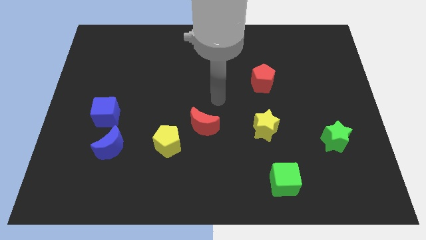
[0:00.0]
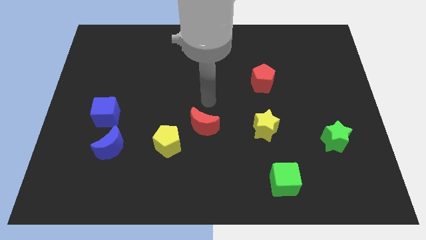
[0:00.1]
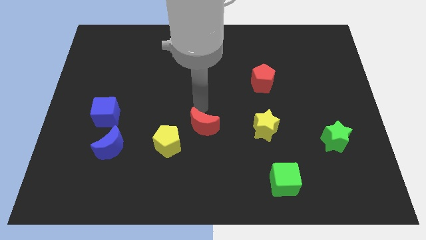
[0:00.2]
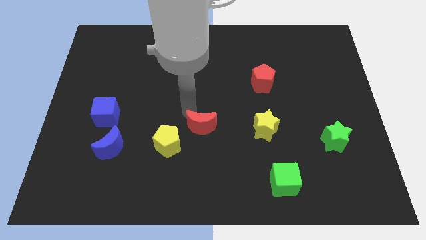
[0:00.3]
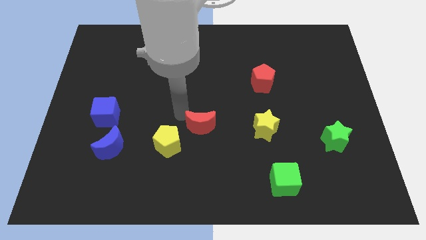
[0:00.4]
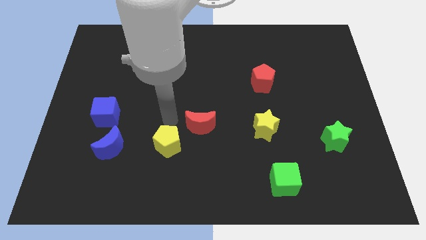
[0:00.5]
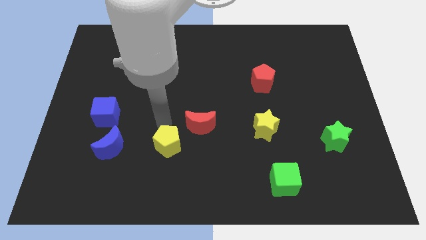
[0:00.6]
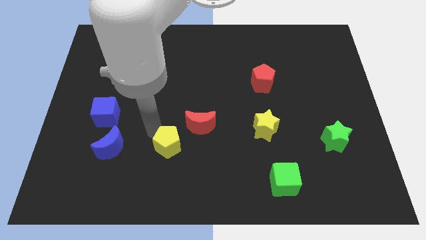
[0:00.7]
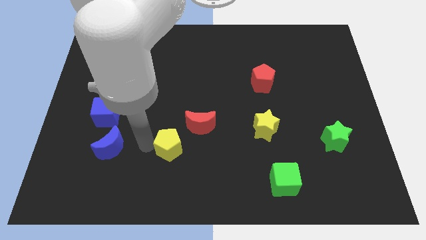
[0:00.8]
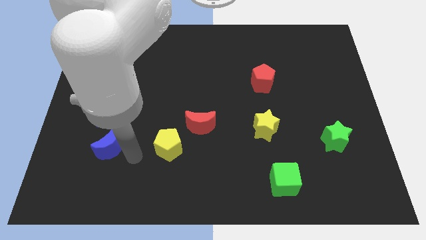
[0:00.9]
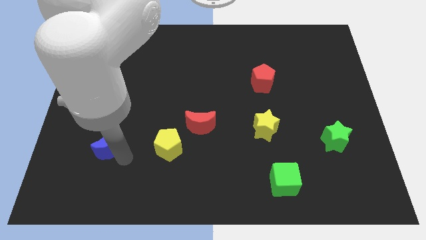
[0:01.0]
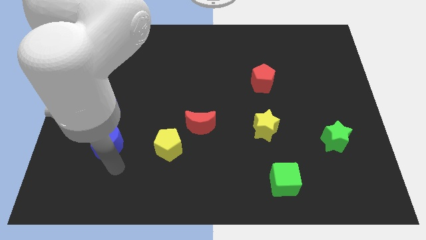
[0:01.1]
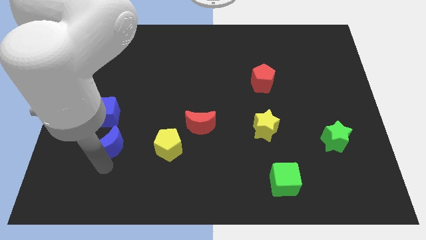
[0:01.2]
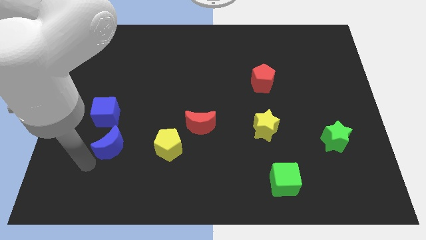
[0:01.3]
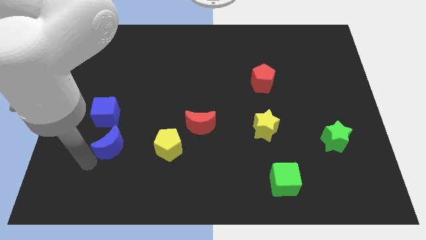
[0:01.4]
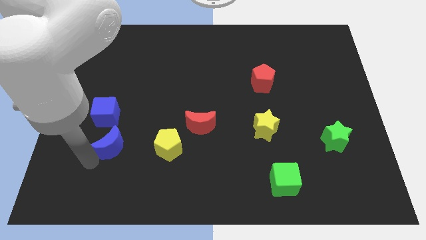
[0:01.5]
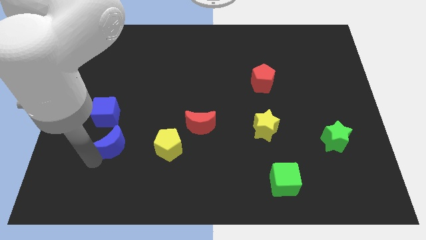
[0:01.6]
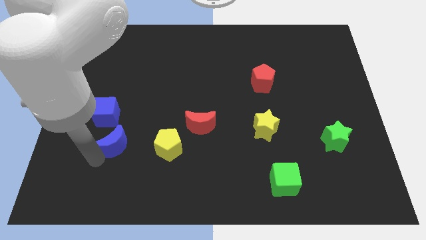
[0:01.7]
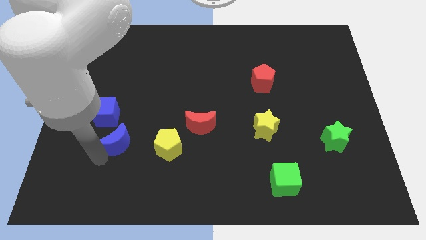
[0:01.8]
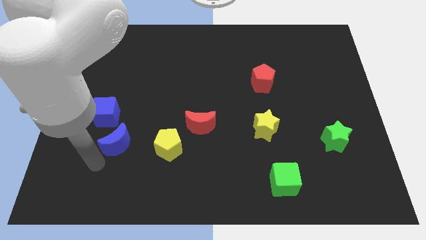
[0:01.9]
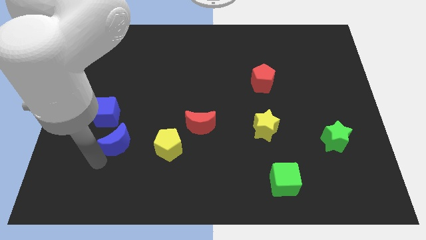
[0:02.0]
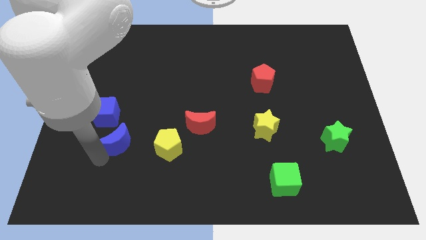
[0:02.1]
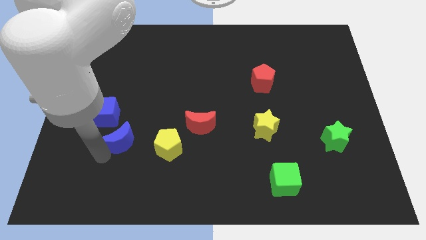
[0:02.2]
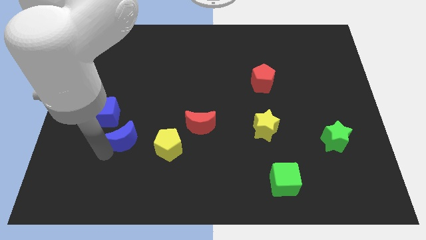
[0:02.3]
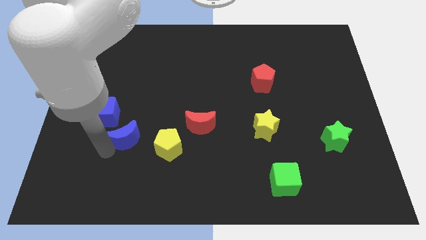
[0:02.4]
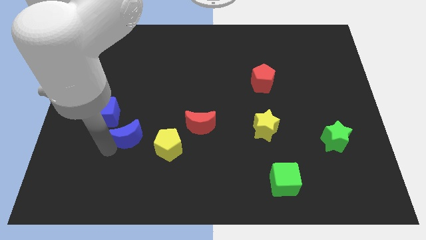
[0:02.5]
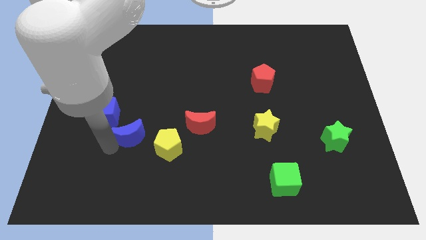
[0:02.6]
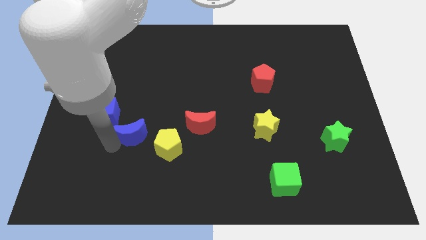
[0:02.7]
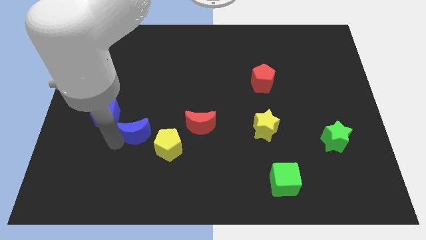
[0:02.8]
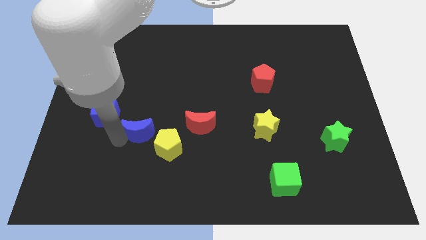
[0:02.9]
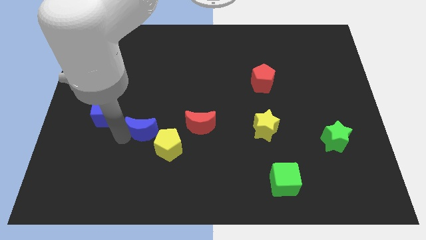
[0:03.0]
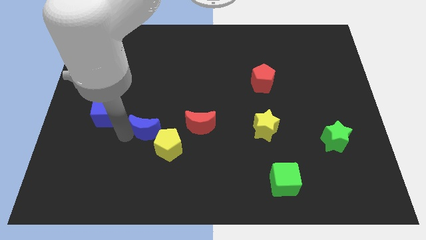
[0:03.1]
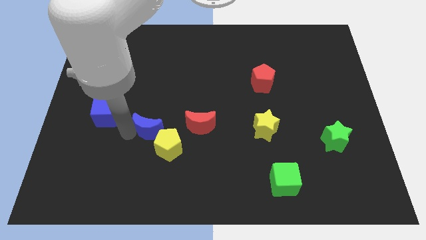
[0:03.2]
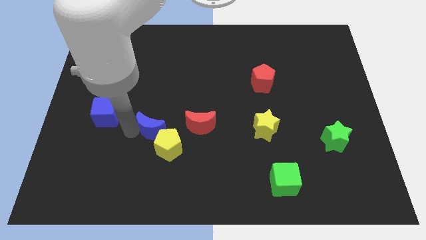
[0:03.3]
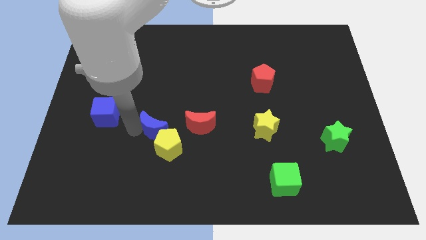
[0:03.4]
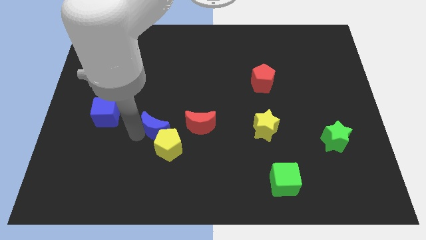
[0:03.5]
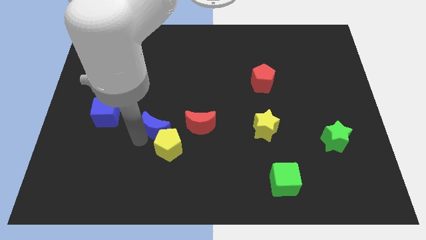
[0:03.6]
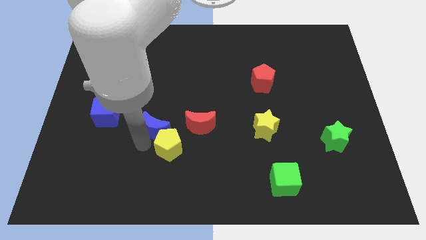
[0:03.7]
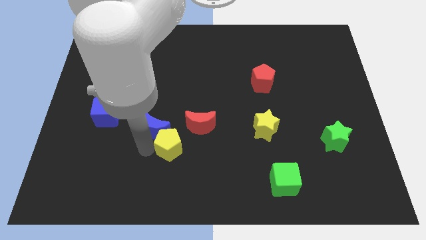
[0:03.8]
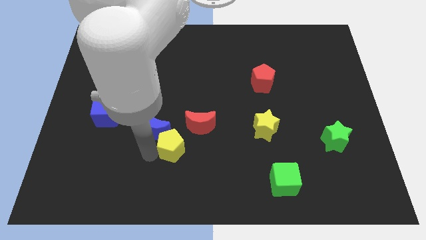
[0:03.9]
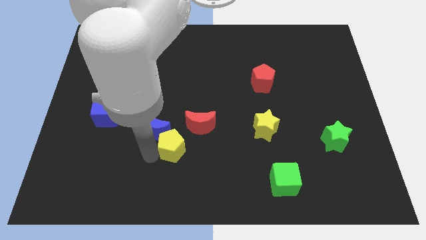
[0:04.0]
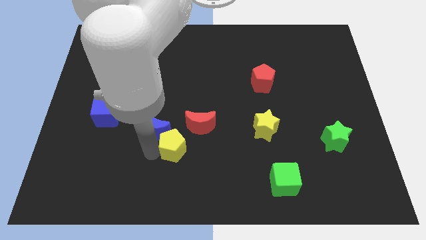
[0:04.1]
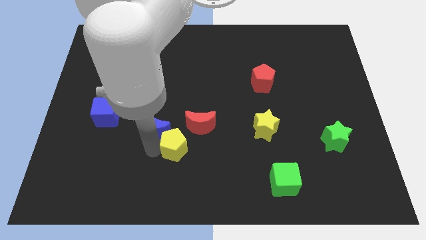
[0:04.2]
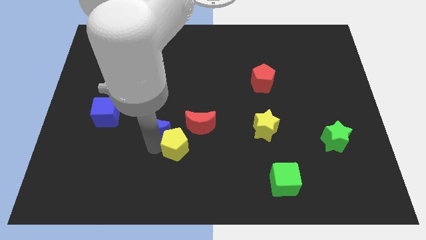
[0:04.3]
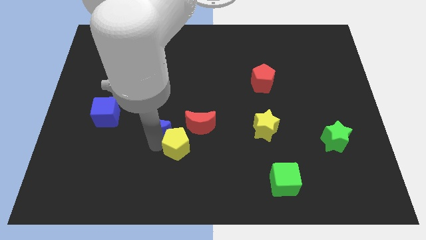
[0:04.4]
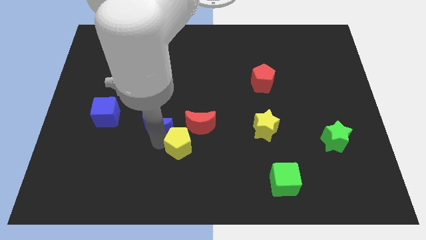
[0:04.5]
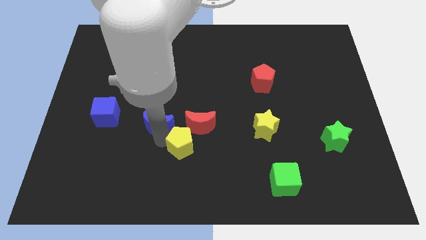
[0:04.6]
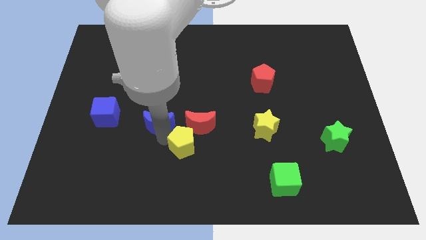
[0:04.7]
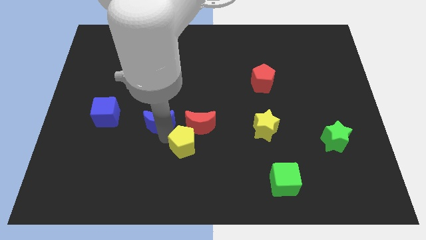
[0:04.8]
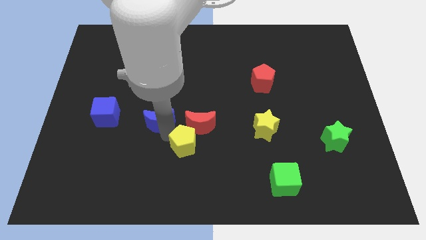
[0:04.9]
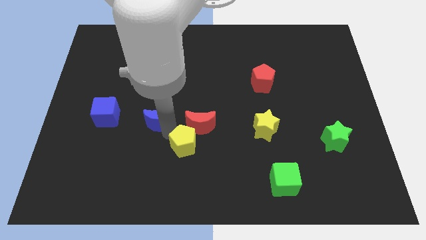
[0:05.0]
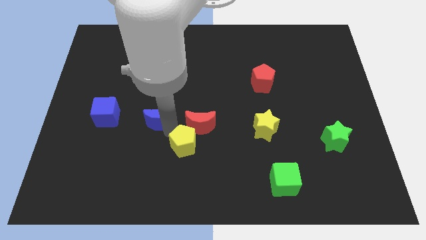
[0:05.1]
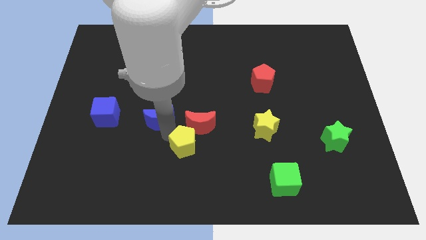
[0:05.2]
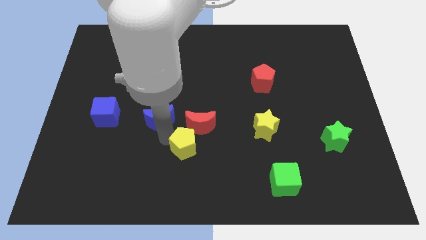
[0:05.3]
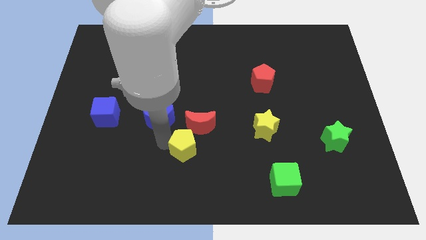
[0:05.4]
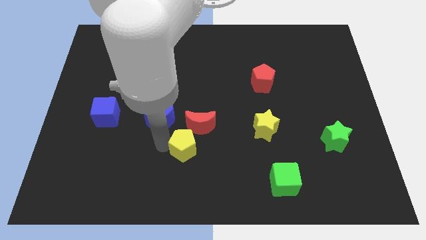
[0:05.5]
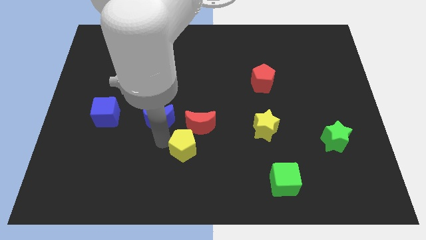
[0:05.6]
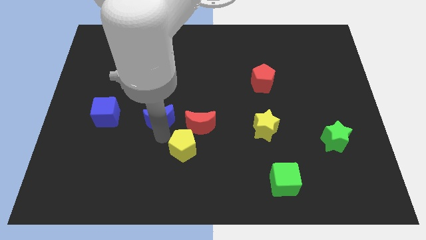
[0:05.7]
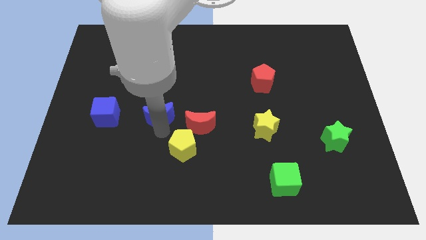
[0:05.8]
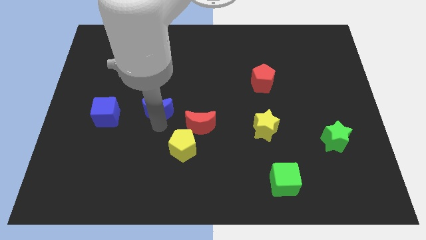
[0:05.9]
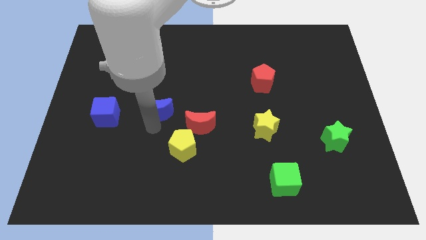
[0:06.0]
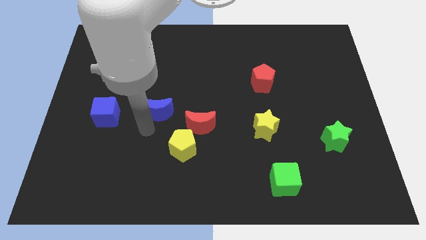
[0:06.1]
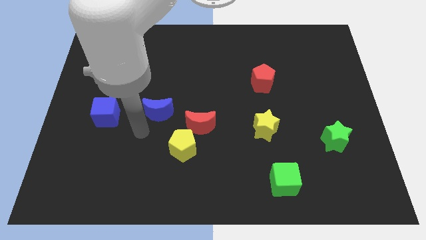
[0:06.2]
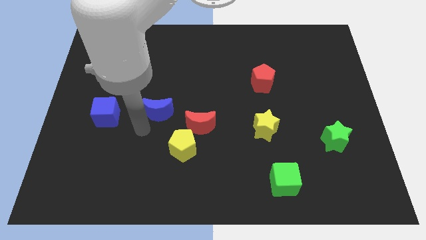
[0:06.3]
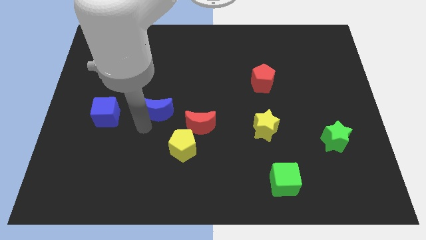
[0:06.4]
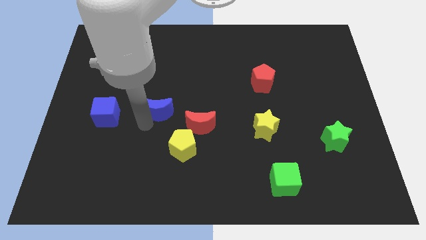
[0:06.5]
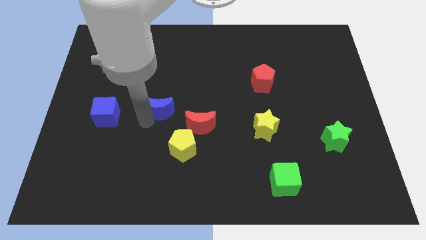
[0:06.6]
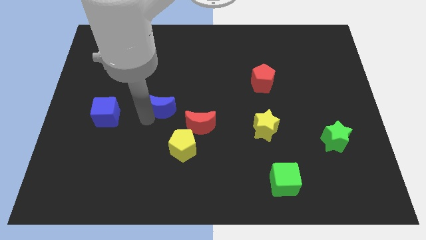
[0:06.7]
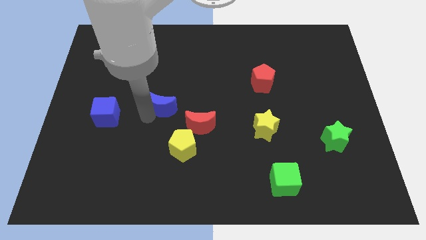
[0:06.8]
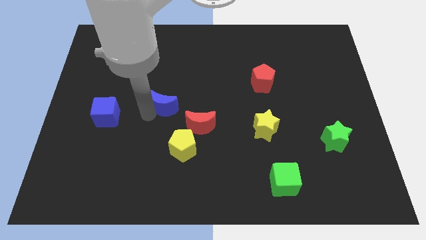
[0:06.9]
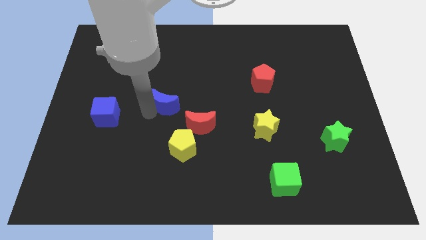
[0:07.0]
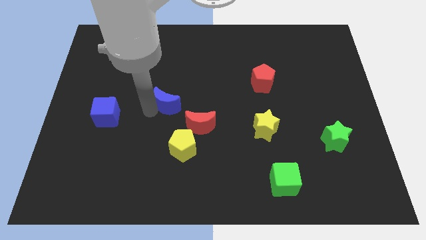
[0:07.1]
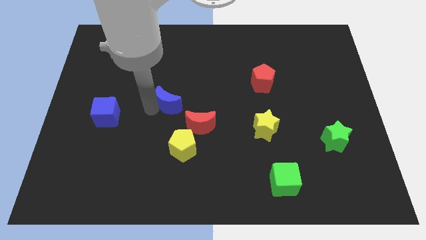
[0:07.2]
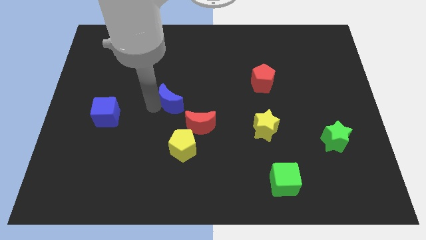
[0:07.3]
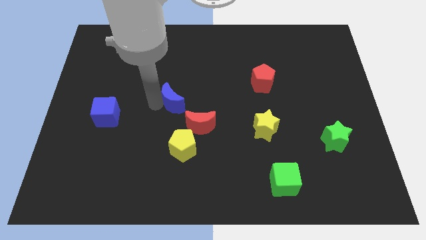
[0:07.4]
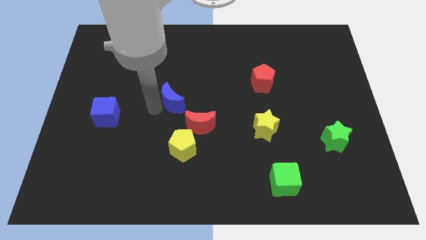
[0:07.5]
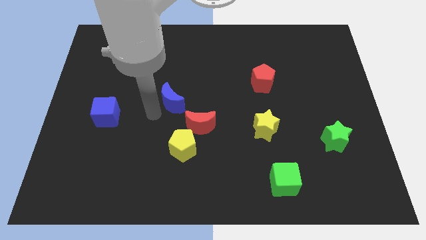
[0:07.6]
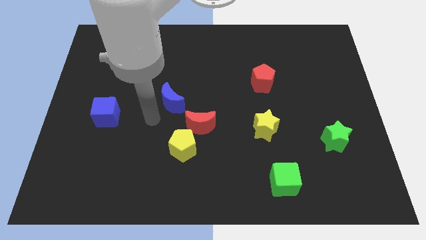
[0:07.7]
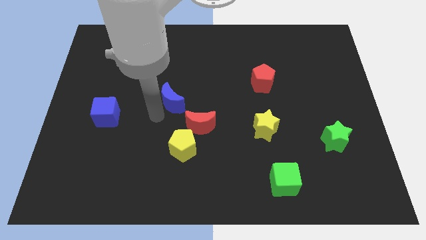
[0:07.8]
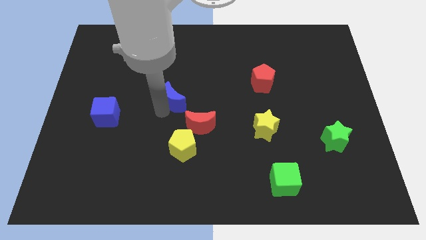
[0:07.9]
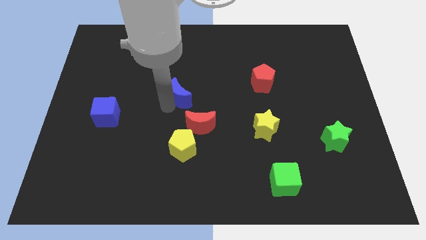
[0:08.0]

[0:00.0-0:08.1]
move the blue moon diagonally upwards and to the right
